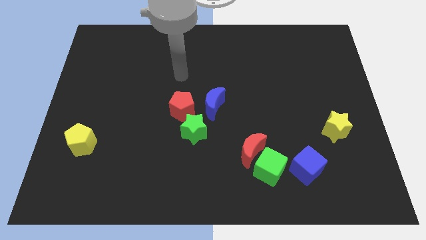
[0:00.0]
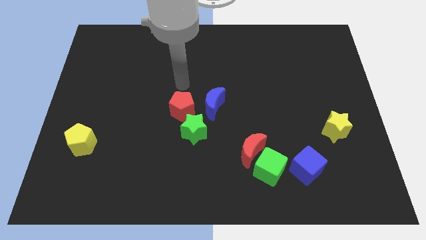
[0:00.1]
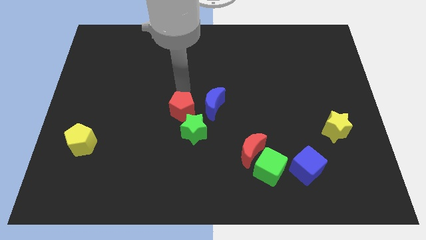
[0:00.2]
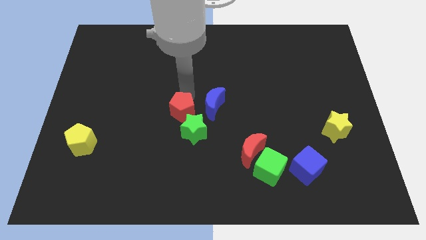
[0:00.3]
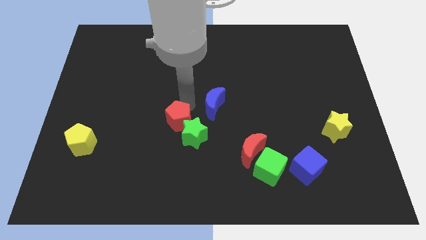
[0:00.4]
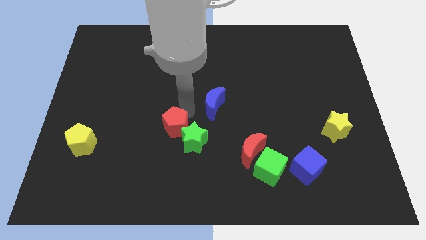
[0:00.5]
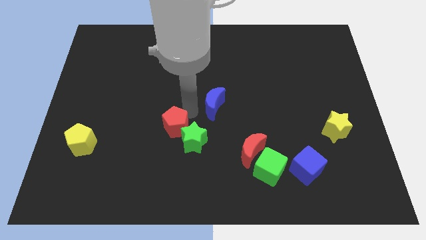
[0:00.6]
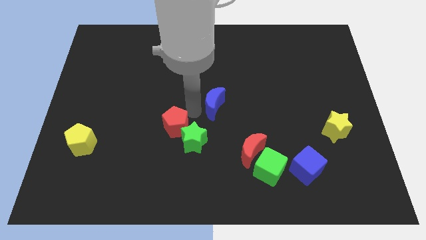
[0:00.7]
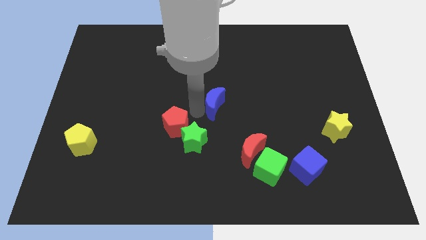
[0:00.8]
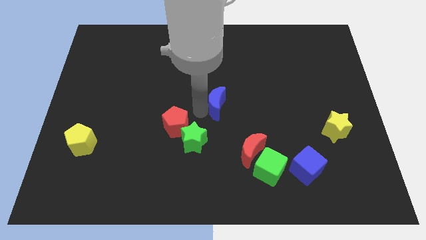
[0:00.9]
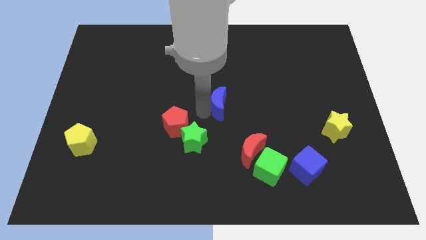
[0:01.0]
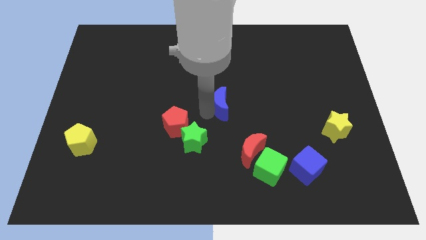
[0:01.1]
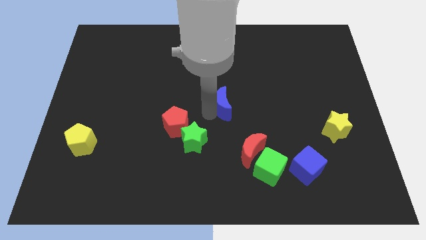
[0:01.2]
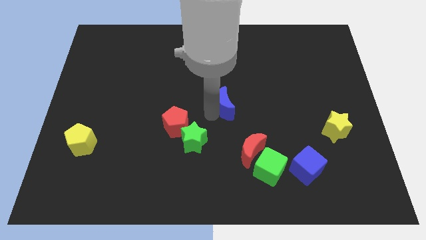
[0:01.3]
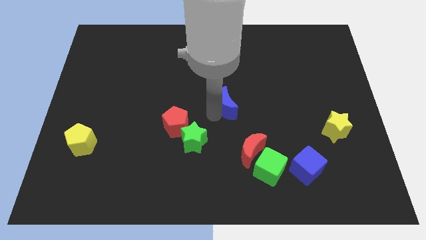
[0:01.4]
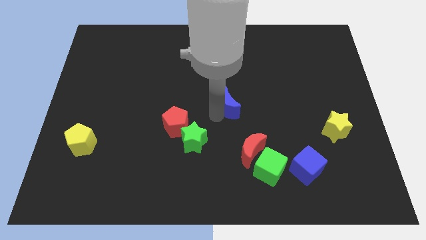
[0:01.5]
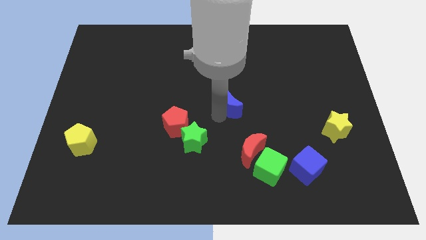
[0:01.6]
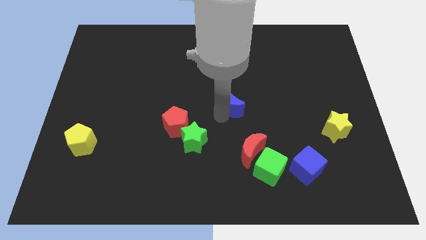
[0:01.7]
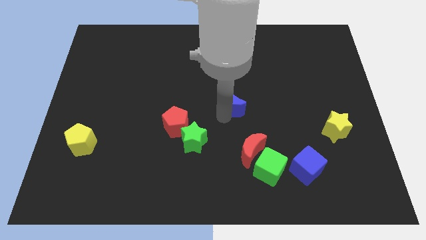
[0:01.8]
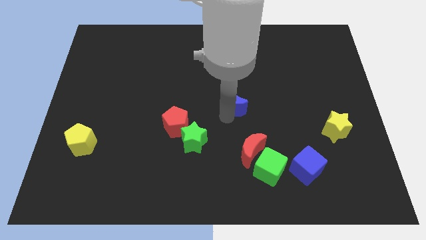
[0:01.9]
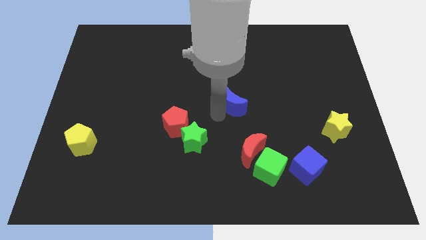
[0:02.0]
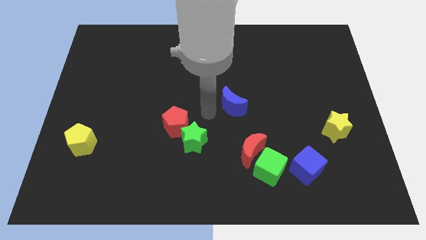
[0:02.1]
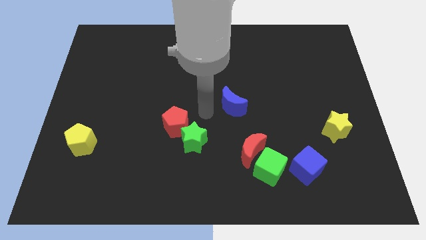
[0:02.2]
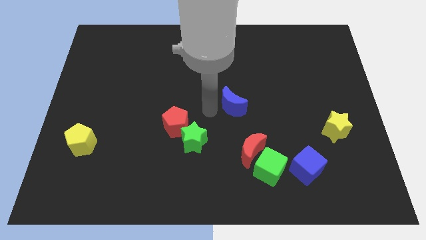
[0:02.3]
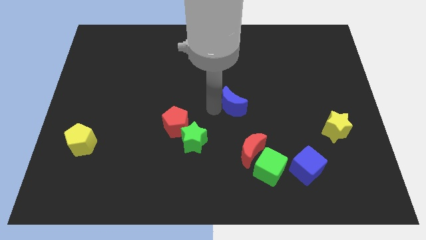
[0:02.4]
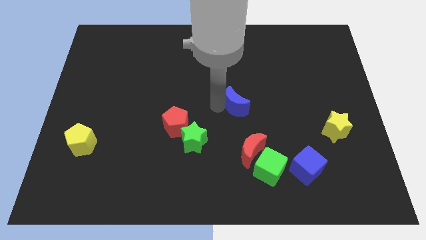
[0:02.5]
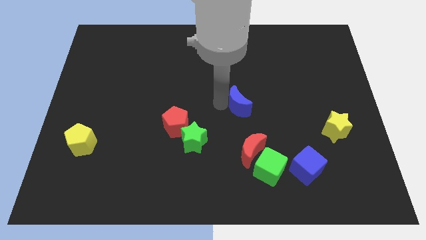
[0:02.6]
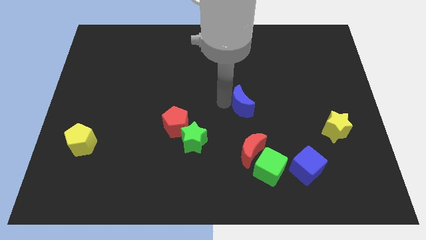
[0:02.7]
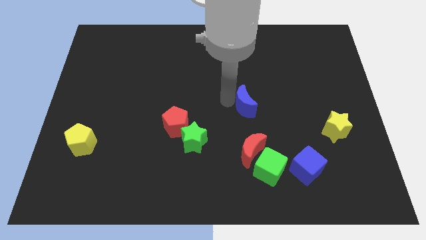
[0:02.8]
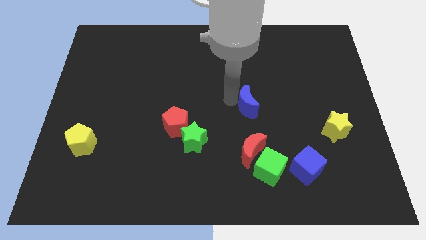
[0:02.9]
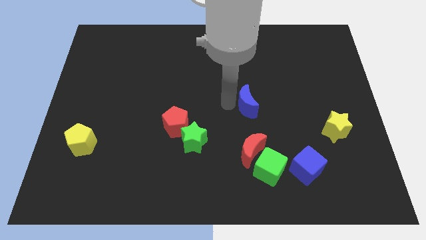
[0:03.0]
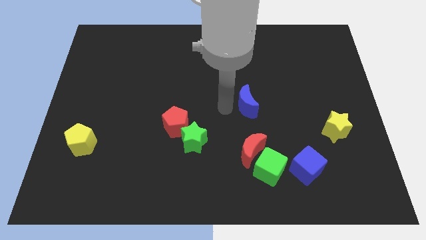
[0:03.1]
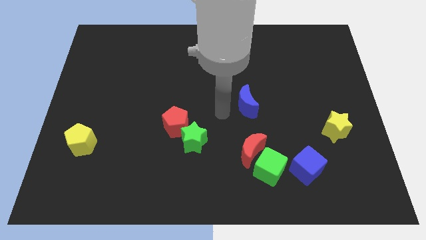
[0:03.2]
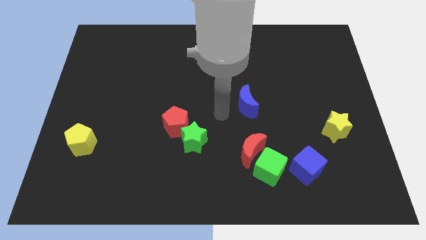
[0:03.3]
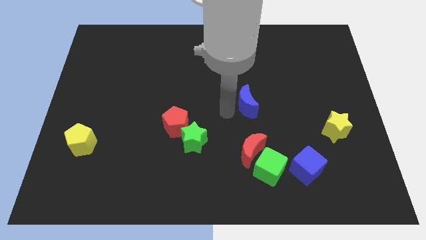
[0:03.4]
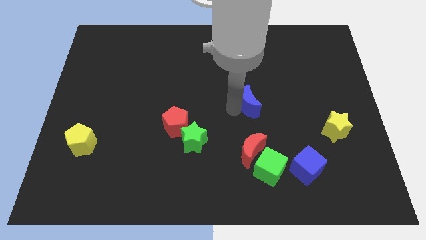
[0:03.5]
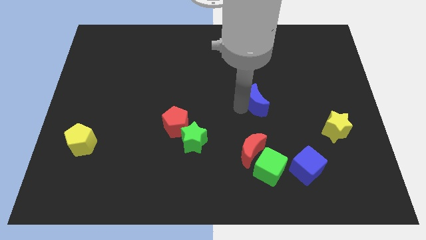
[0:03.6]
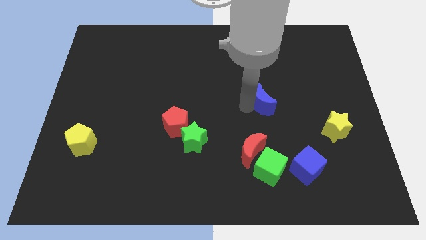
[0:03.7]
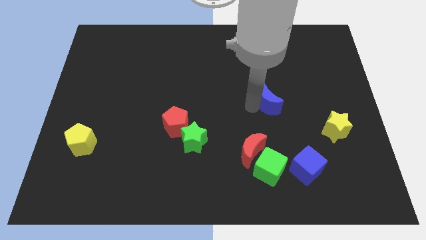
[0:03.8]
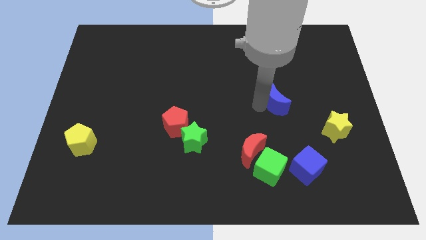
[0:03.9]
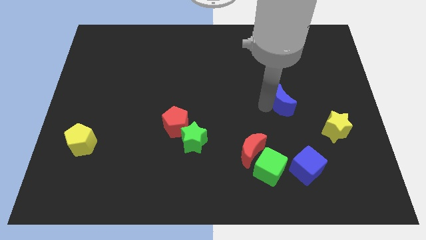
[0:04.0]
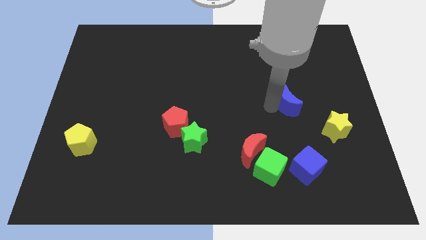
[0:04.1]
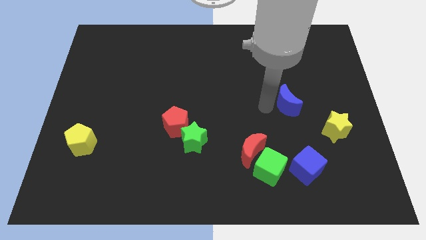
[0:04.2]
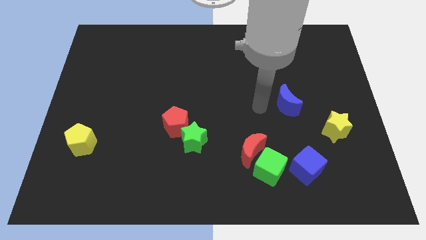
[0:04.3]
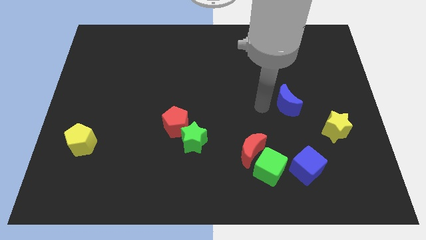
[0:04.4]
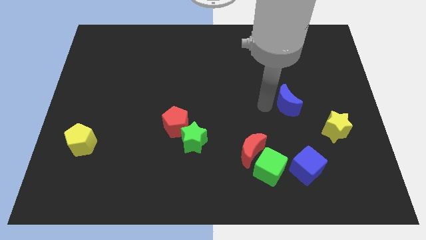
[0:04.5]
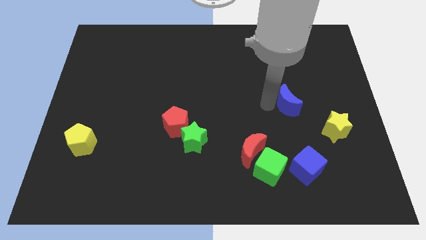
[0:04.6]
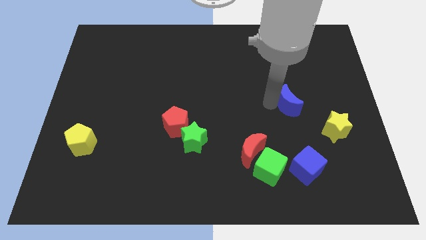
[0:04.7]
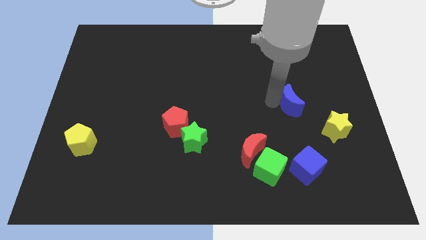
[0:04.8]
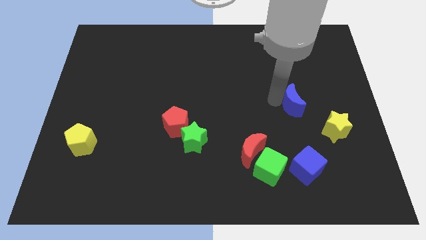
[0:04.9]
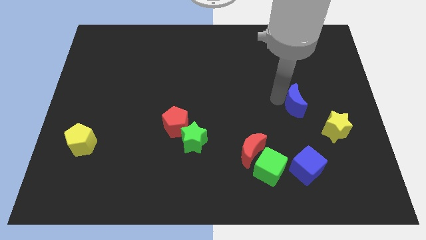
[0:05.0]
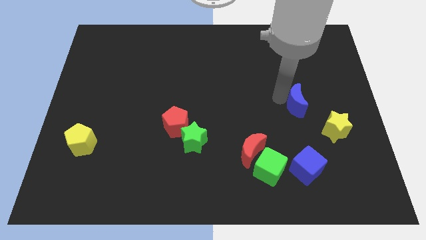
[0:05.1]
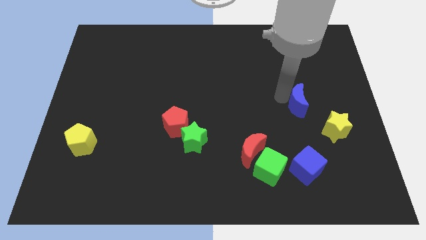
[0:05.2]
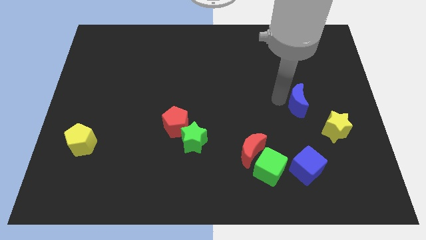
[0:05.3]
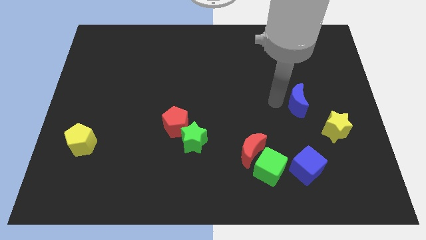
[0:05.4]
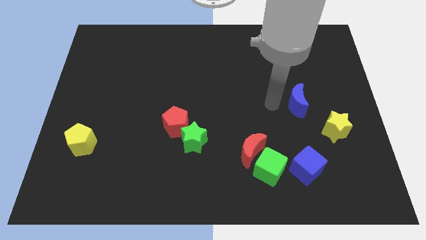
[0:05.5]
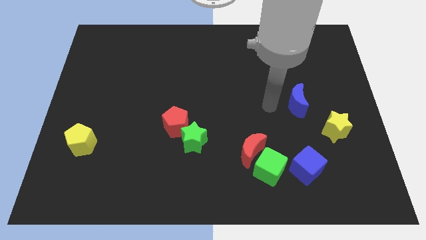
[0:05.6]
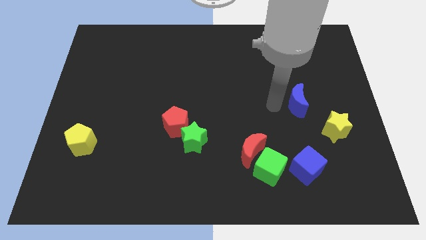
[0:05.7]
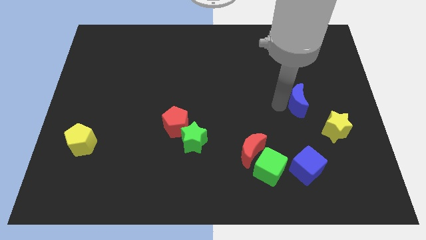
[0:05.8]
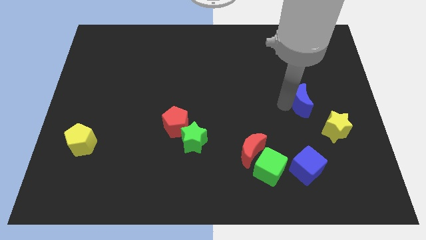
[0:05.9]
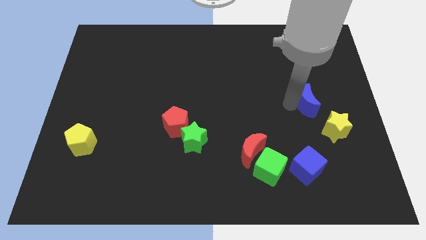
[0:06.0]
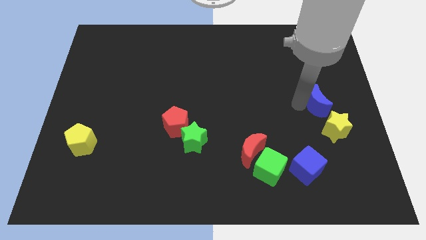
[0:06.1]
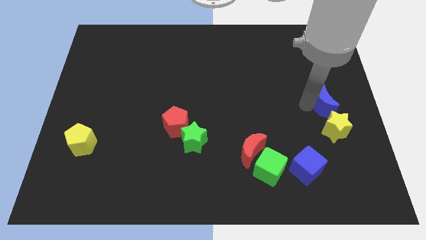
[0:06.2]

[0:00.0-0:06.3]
slide the blue moon to the right side of the board
